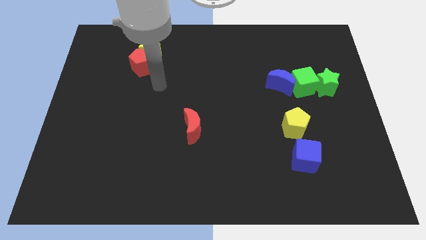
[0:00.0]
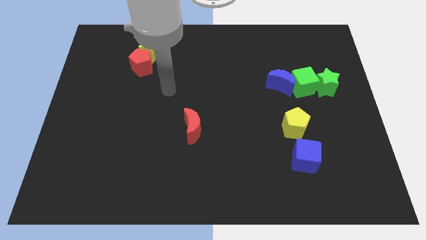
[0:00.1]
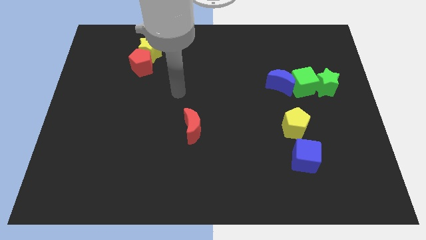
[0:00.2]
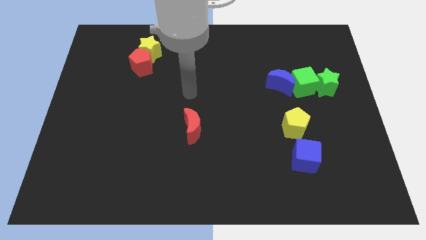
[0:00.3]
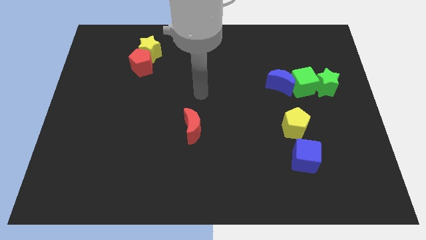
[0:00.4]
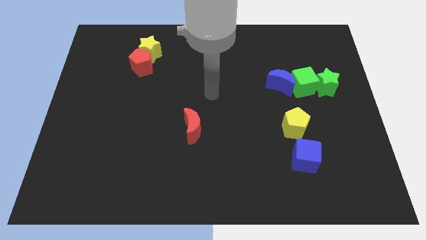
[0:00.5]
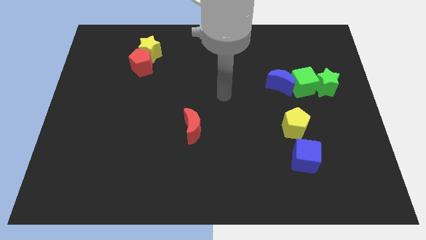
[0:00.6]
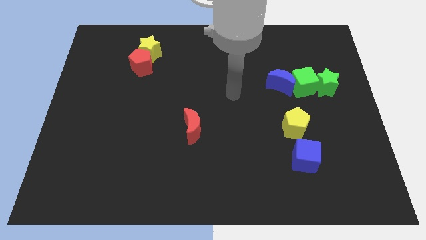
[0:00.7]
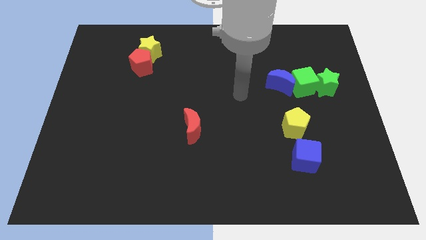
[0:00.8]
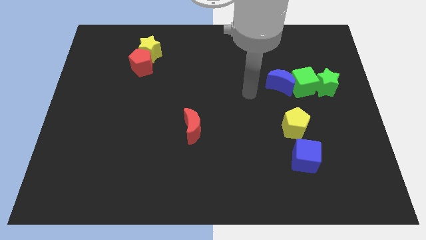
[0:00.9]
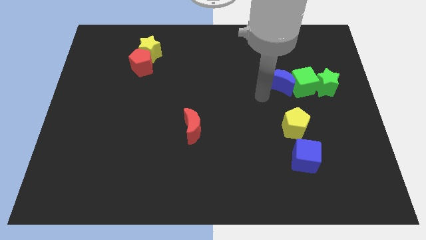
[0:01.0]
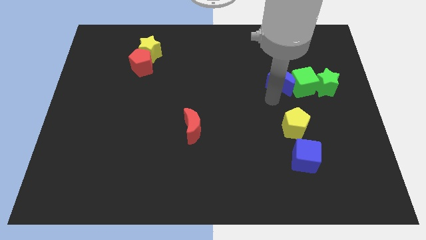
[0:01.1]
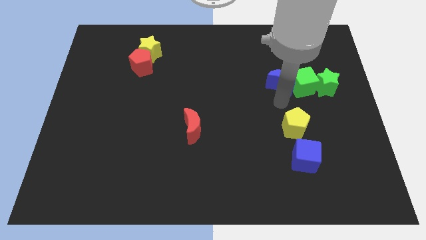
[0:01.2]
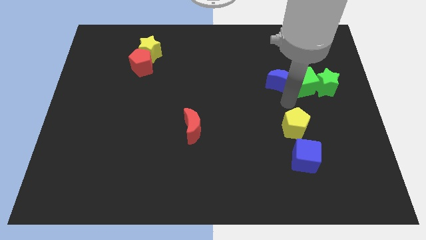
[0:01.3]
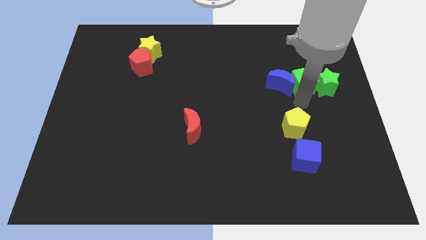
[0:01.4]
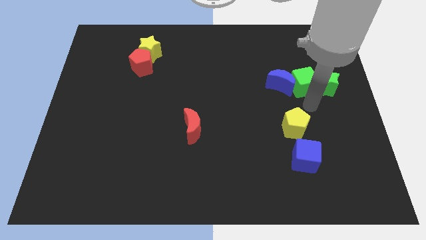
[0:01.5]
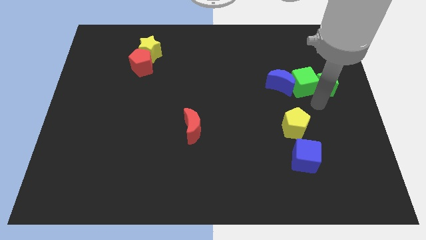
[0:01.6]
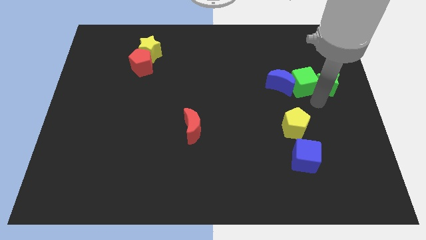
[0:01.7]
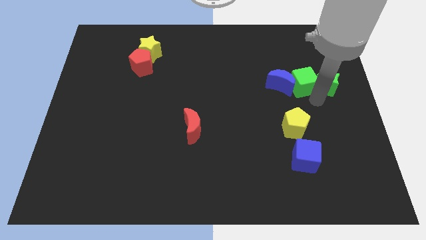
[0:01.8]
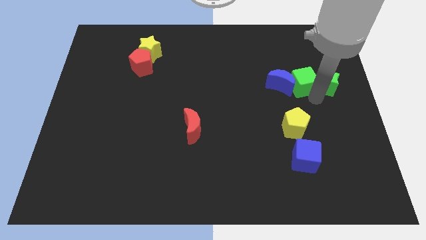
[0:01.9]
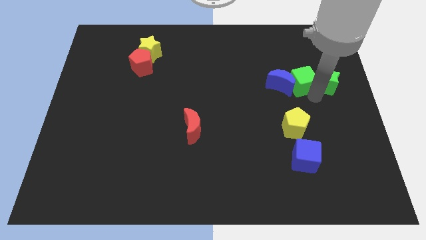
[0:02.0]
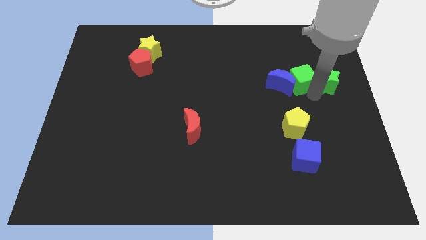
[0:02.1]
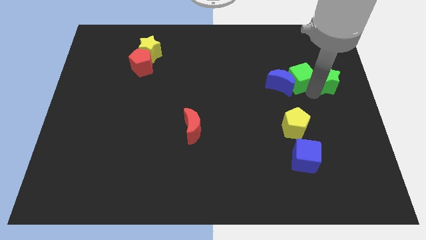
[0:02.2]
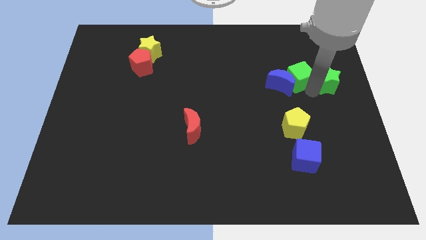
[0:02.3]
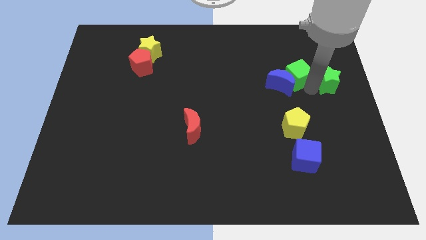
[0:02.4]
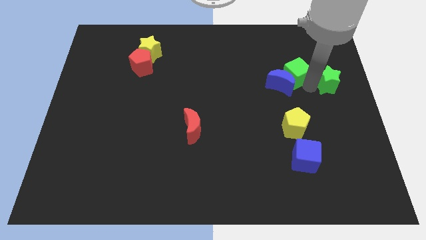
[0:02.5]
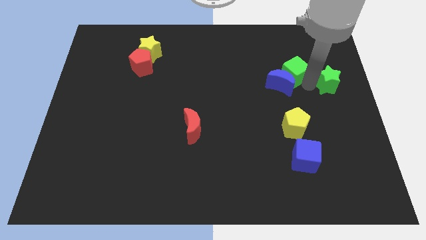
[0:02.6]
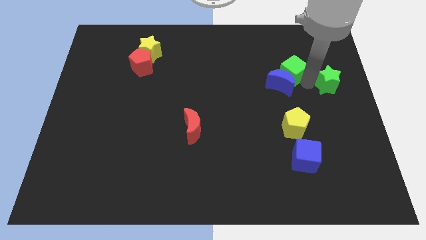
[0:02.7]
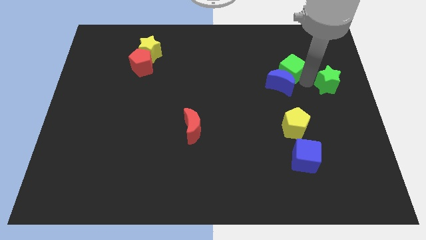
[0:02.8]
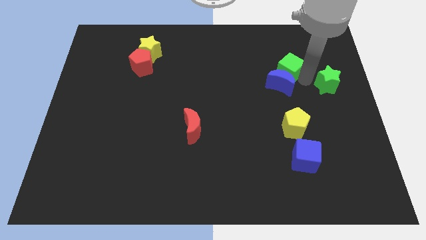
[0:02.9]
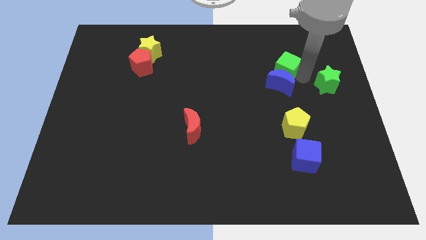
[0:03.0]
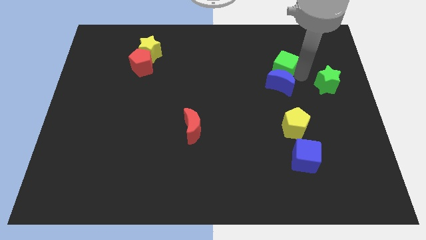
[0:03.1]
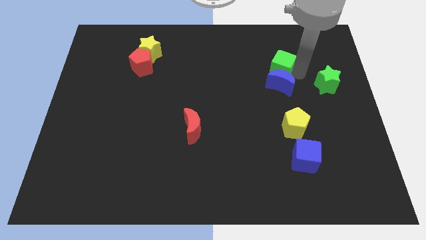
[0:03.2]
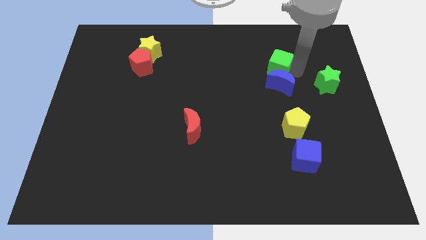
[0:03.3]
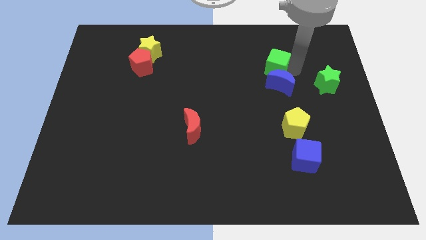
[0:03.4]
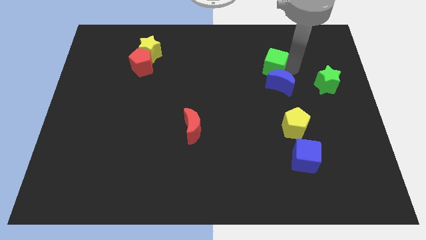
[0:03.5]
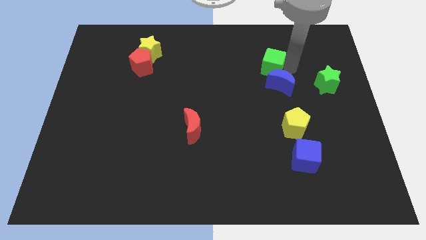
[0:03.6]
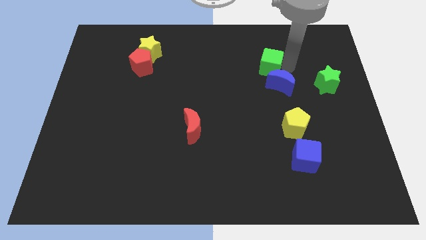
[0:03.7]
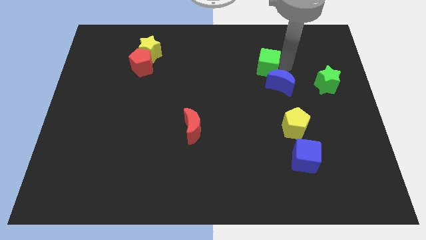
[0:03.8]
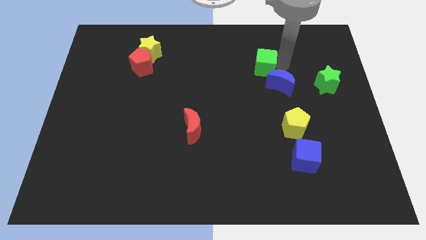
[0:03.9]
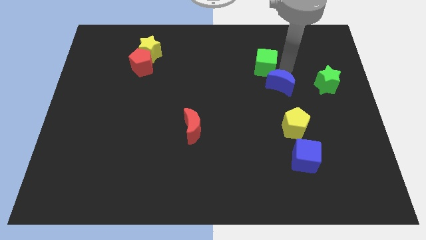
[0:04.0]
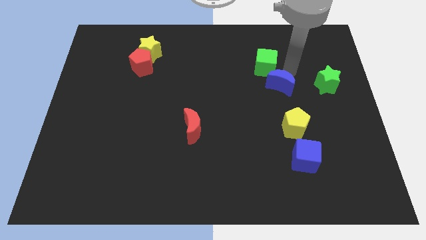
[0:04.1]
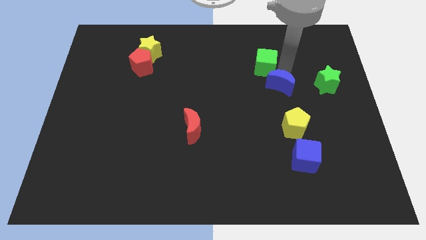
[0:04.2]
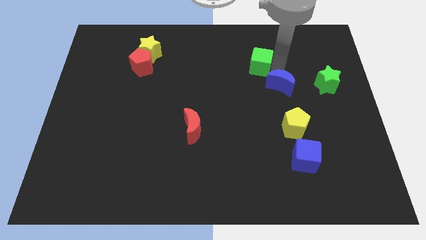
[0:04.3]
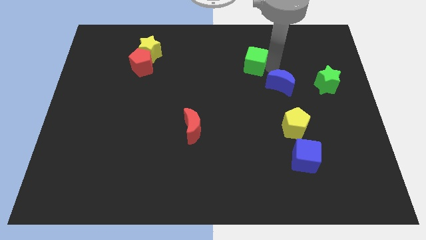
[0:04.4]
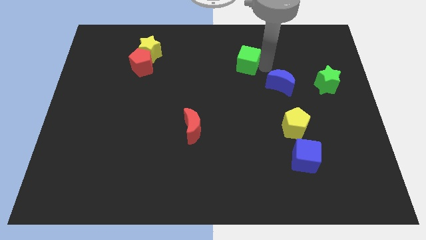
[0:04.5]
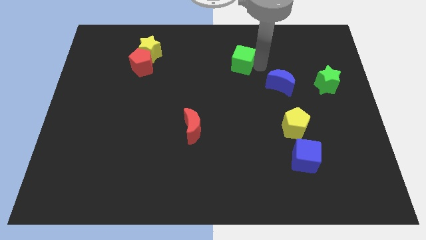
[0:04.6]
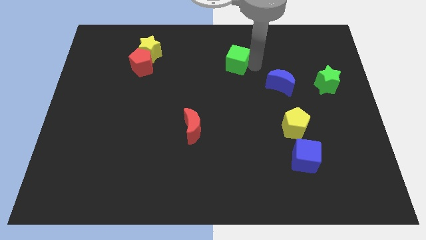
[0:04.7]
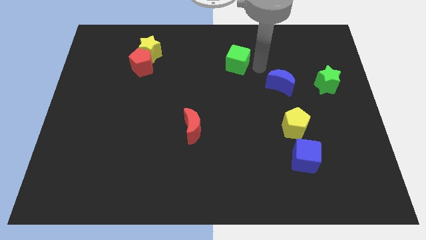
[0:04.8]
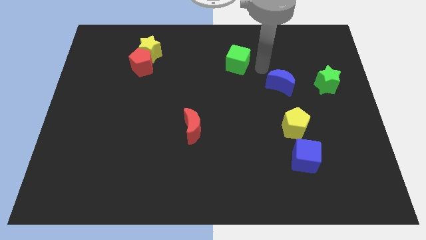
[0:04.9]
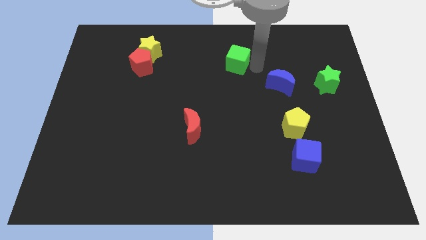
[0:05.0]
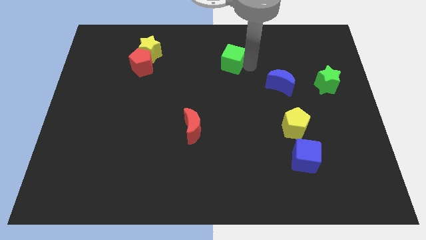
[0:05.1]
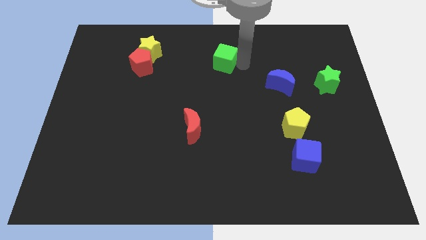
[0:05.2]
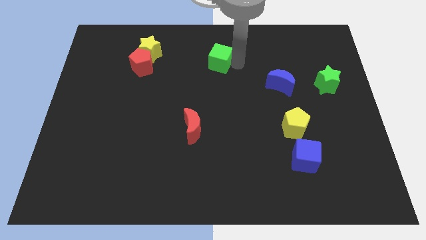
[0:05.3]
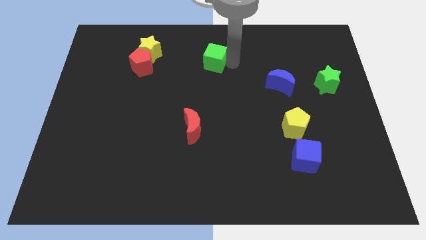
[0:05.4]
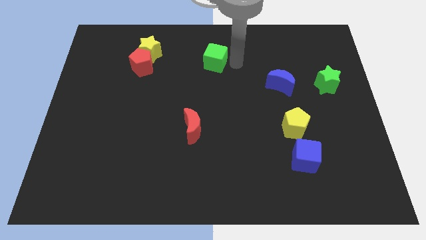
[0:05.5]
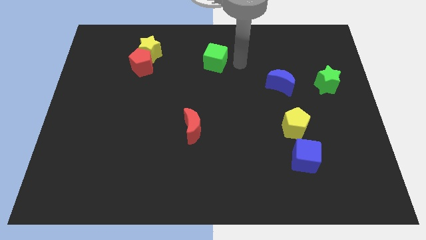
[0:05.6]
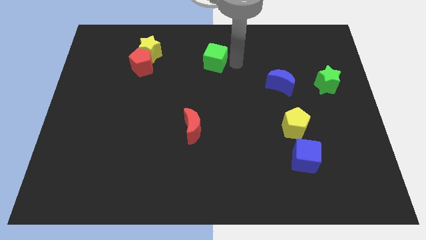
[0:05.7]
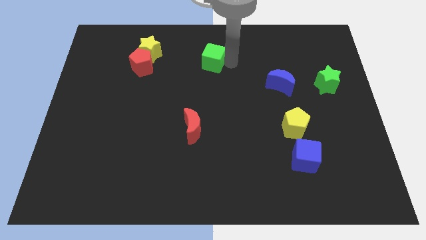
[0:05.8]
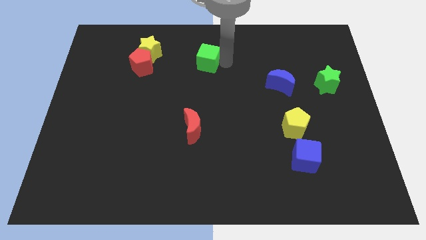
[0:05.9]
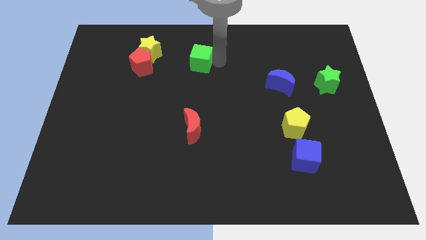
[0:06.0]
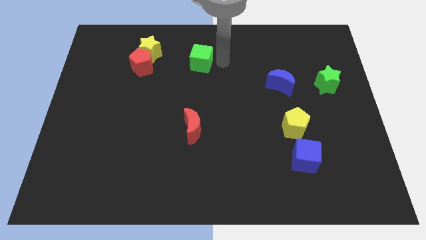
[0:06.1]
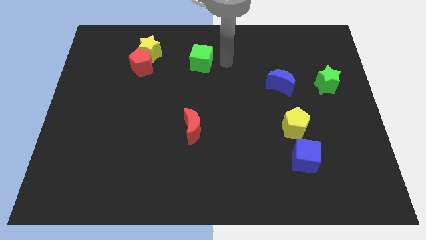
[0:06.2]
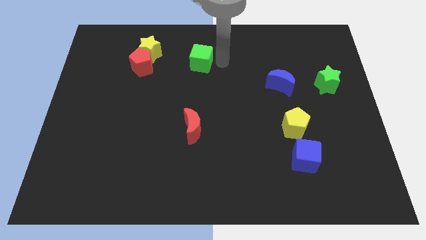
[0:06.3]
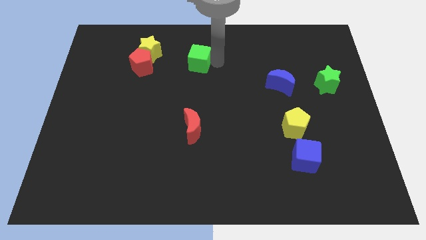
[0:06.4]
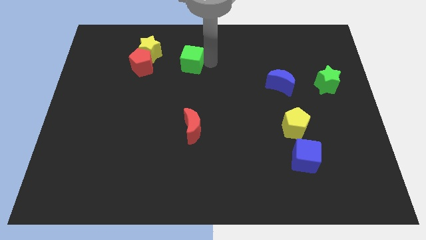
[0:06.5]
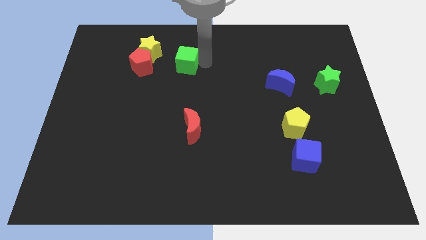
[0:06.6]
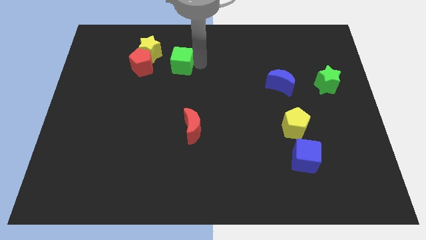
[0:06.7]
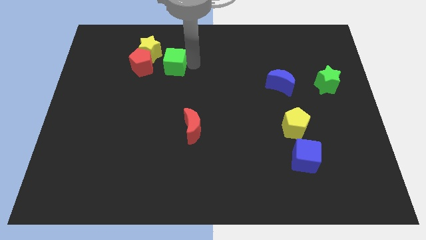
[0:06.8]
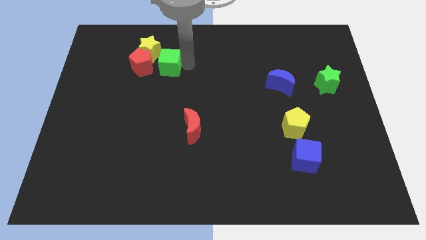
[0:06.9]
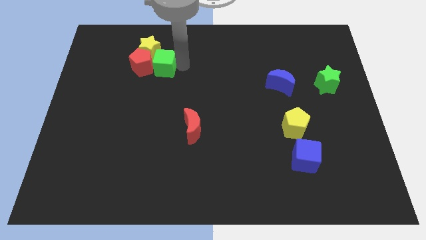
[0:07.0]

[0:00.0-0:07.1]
push the green cube close to the red pentagon
